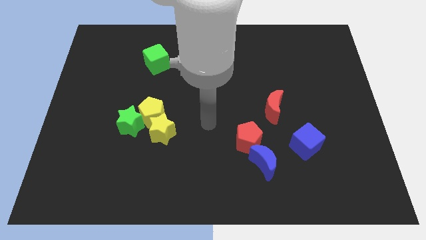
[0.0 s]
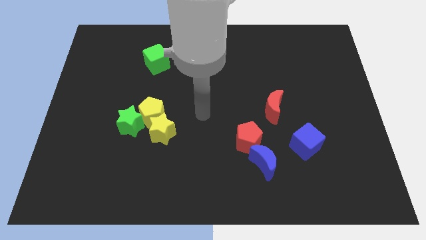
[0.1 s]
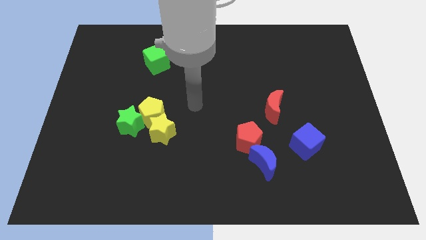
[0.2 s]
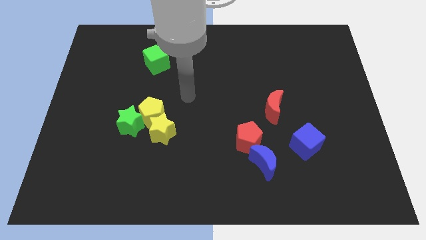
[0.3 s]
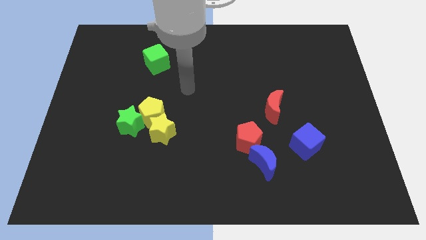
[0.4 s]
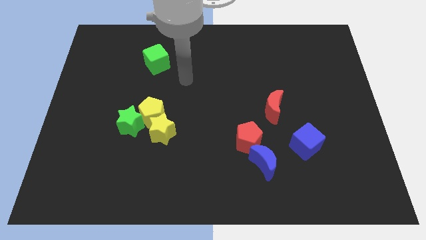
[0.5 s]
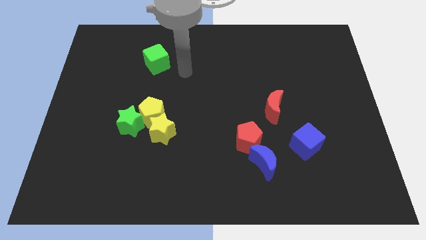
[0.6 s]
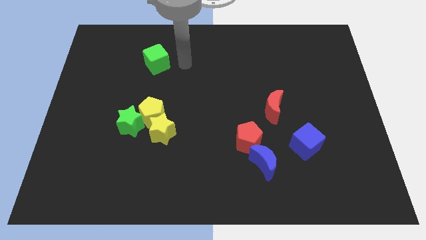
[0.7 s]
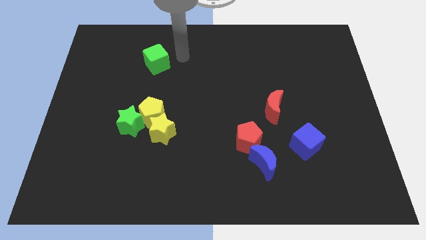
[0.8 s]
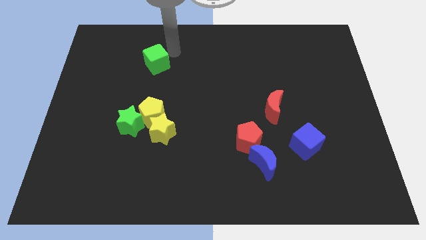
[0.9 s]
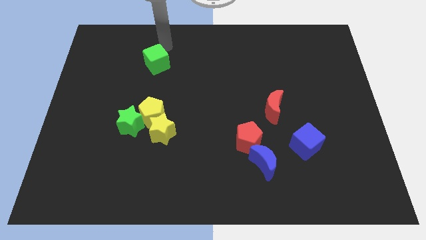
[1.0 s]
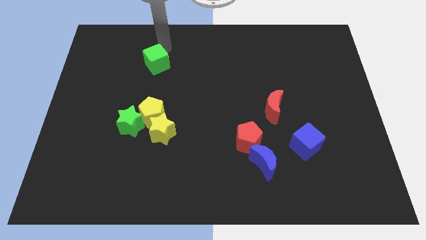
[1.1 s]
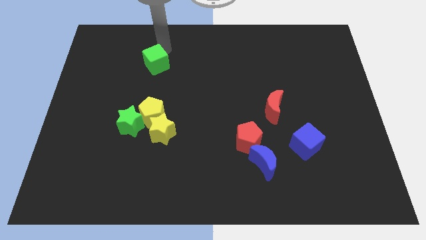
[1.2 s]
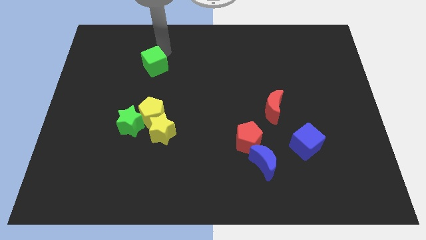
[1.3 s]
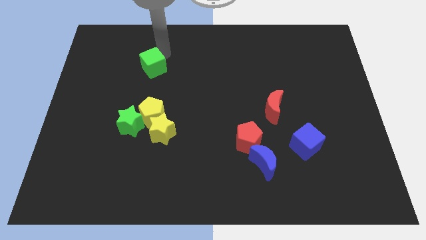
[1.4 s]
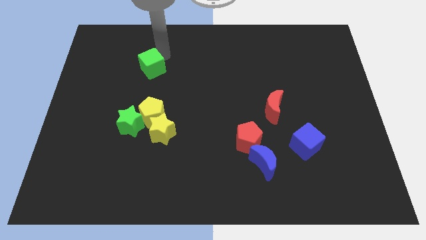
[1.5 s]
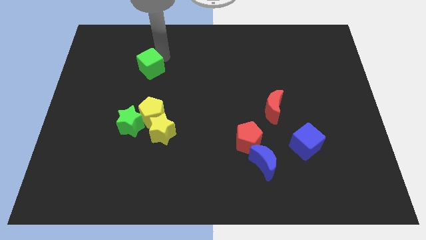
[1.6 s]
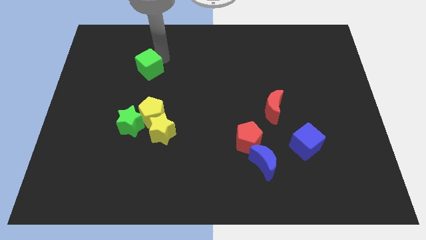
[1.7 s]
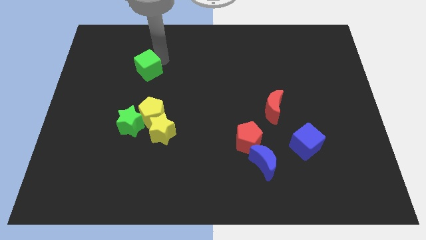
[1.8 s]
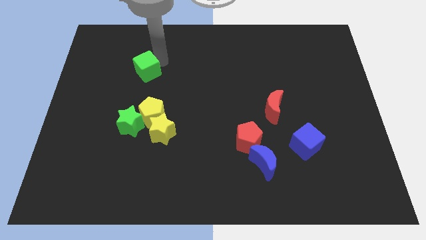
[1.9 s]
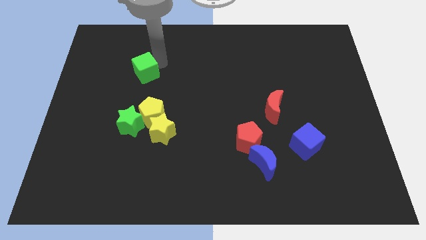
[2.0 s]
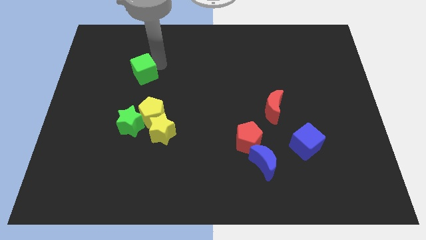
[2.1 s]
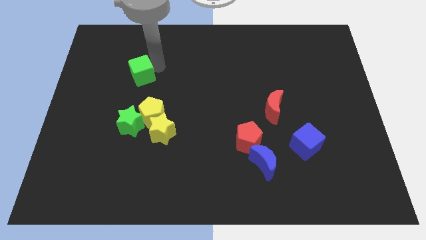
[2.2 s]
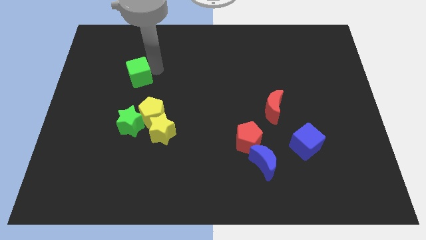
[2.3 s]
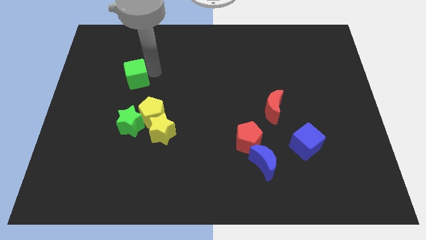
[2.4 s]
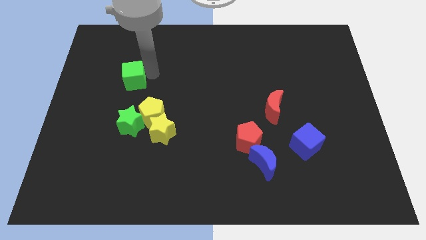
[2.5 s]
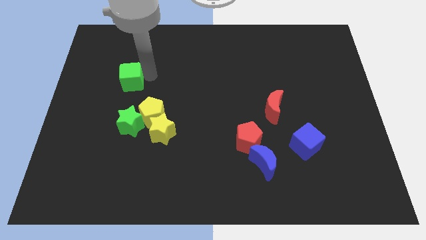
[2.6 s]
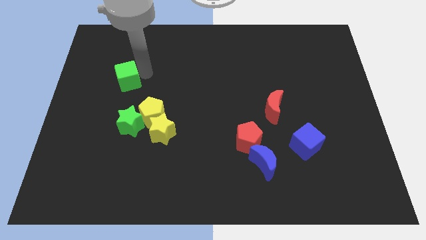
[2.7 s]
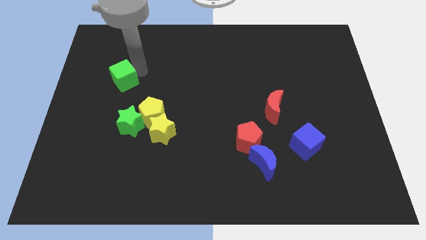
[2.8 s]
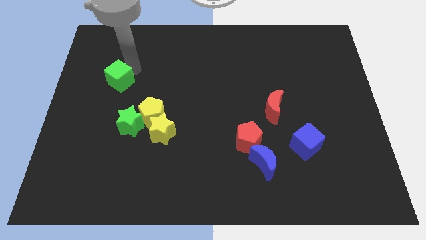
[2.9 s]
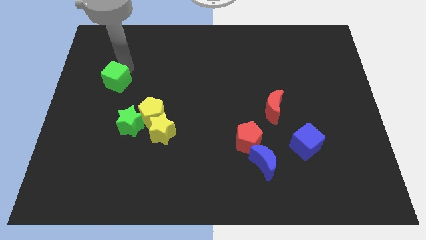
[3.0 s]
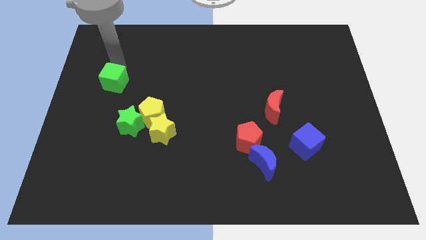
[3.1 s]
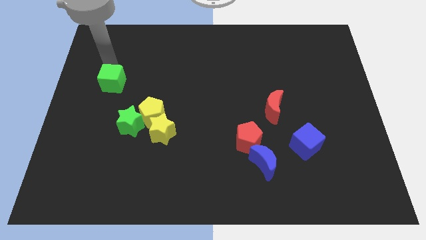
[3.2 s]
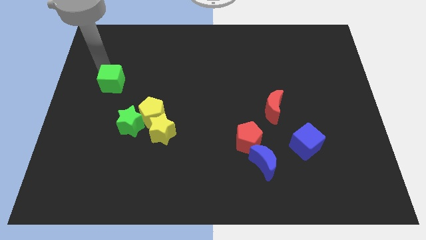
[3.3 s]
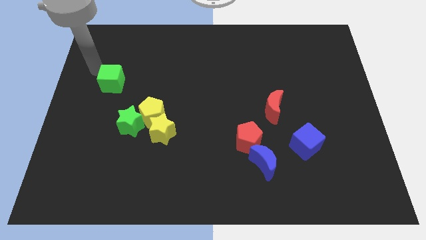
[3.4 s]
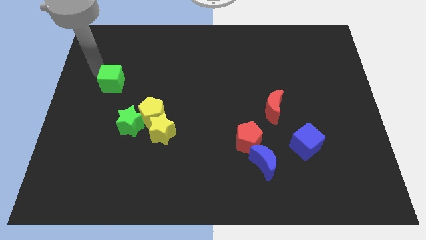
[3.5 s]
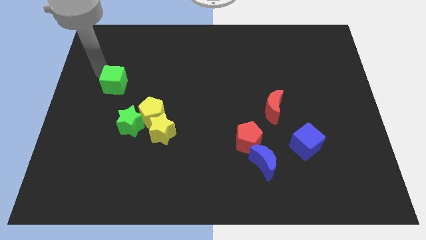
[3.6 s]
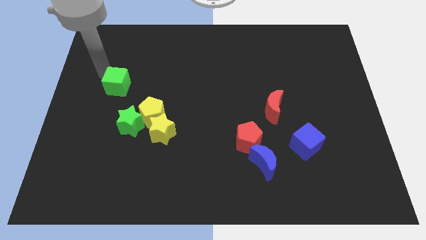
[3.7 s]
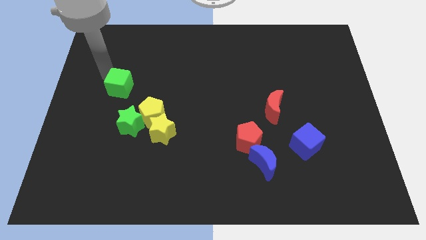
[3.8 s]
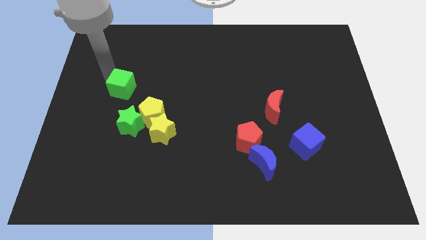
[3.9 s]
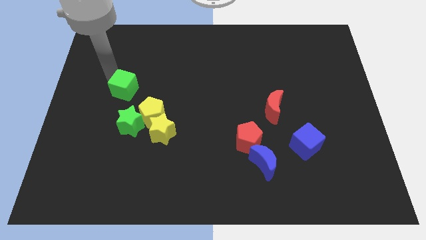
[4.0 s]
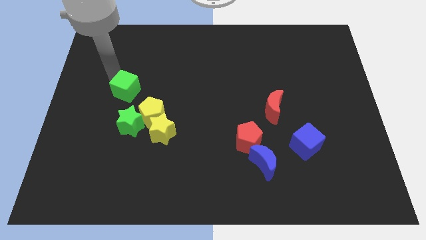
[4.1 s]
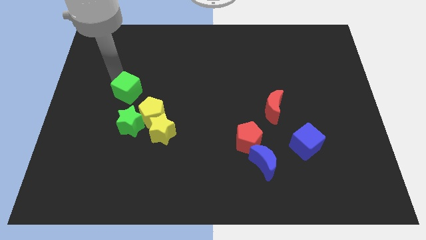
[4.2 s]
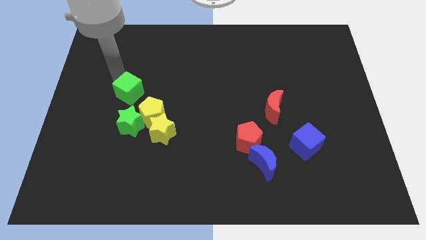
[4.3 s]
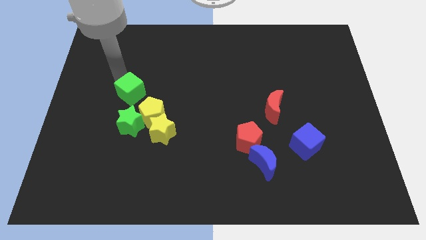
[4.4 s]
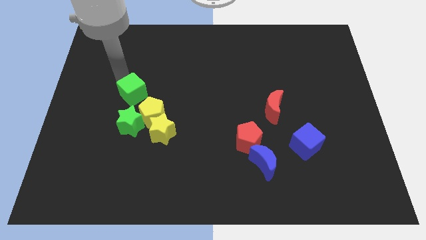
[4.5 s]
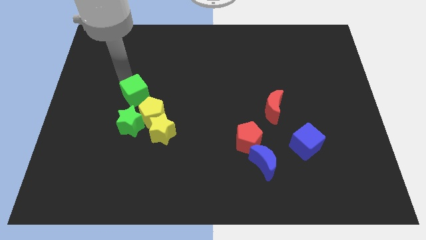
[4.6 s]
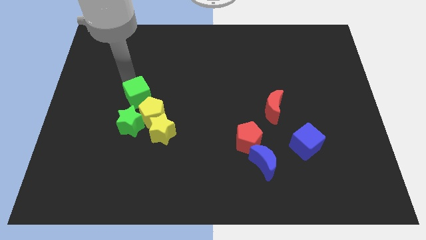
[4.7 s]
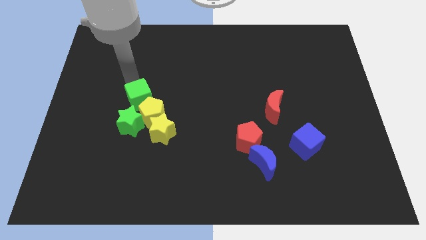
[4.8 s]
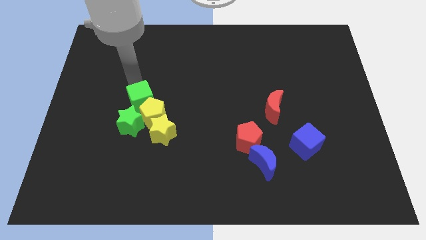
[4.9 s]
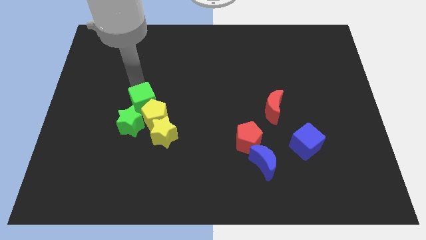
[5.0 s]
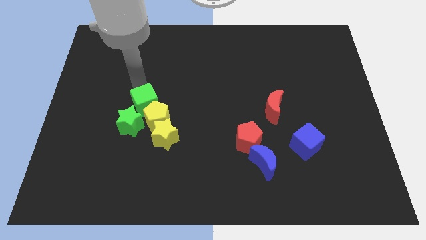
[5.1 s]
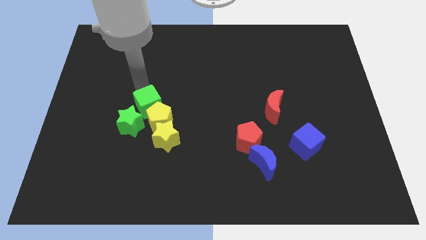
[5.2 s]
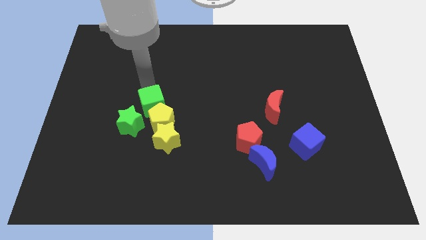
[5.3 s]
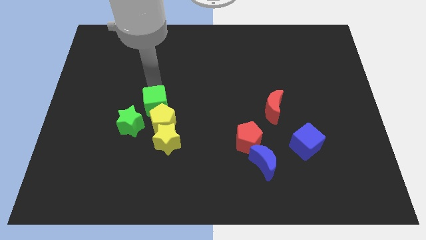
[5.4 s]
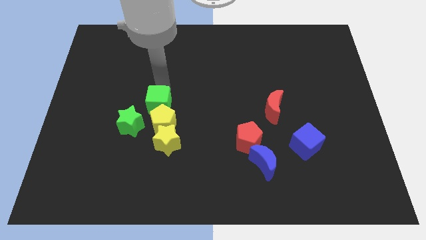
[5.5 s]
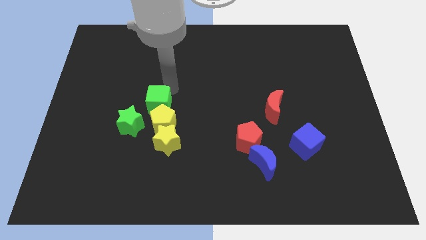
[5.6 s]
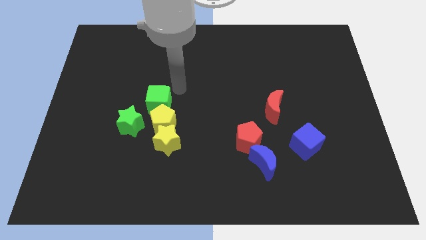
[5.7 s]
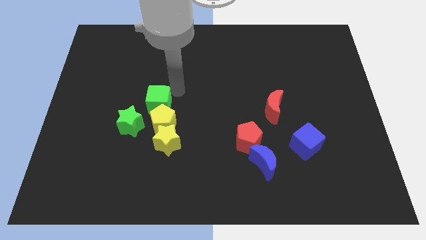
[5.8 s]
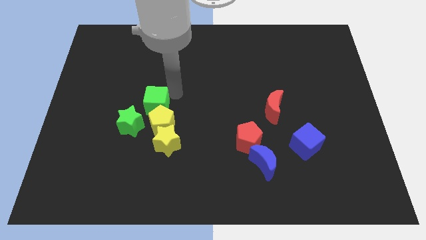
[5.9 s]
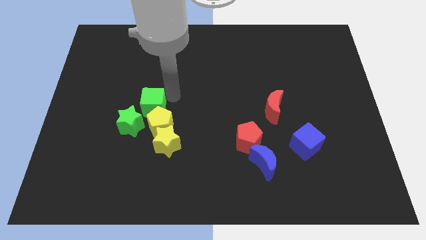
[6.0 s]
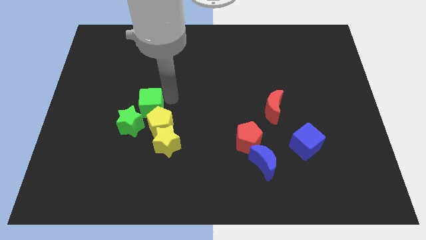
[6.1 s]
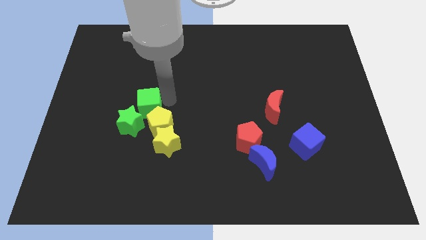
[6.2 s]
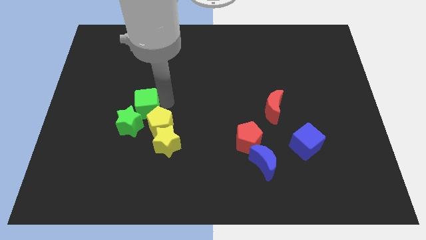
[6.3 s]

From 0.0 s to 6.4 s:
move the green cube next to the green star

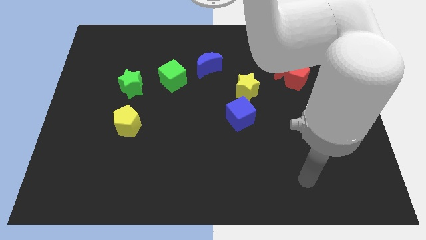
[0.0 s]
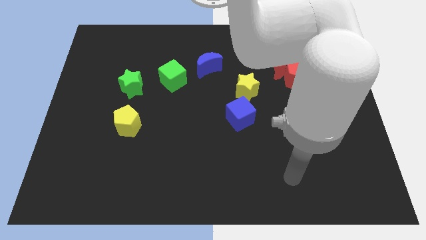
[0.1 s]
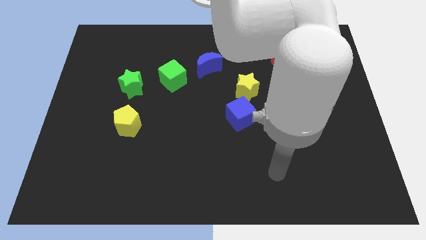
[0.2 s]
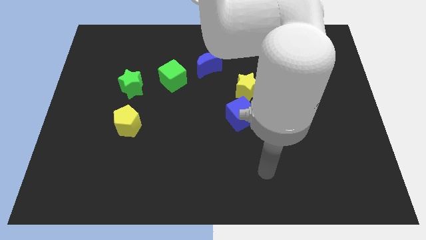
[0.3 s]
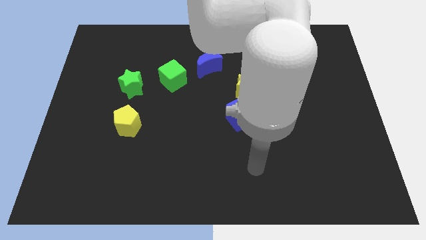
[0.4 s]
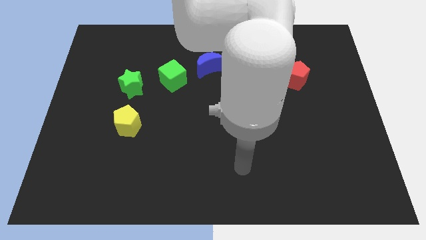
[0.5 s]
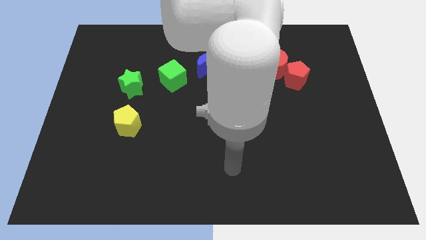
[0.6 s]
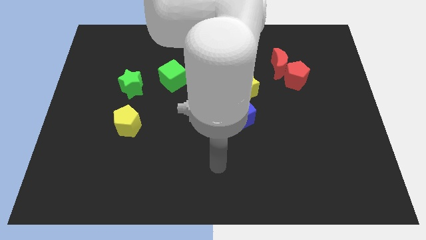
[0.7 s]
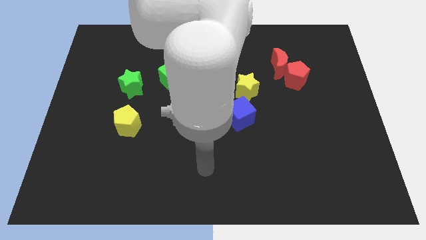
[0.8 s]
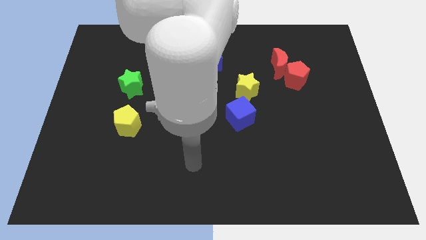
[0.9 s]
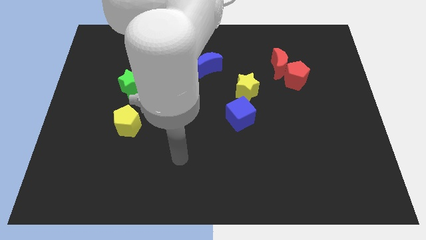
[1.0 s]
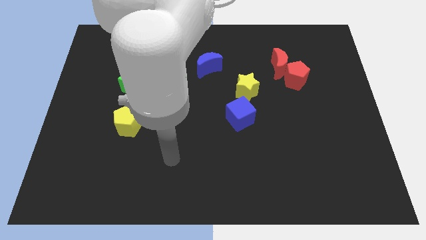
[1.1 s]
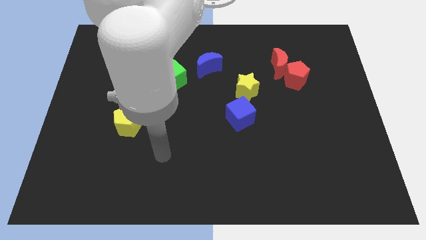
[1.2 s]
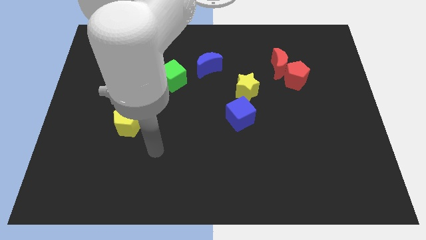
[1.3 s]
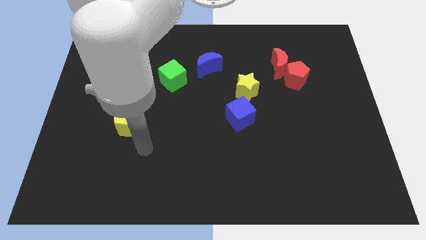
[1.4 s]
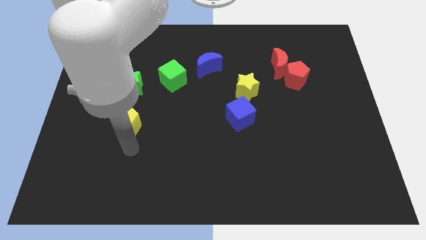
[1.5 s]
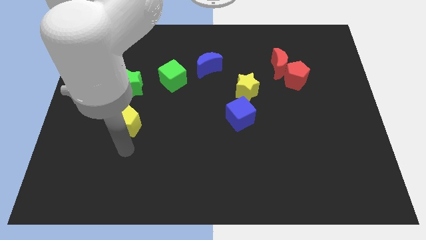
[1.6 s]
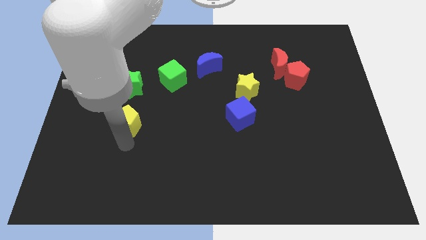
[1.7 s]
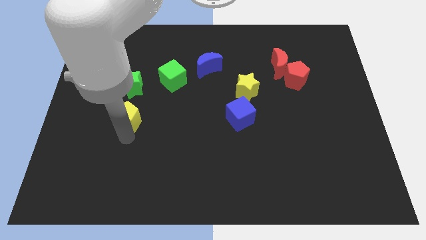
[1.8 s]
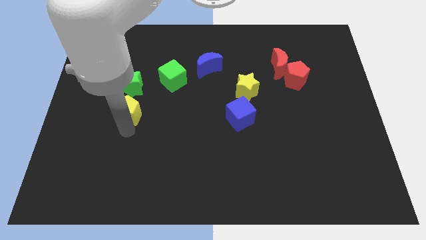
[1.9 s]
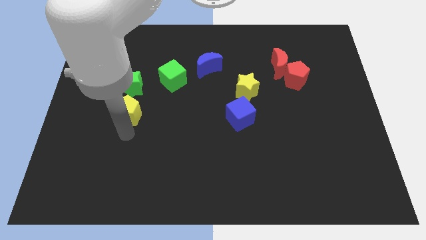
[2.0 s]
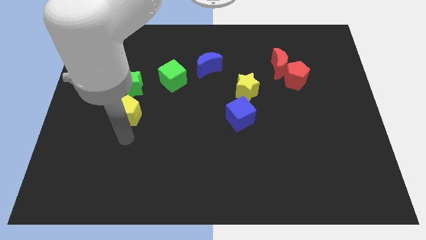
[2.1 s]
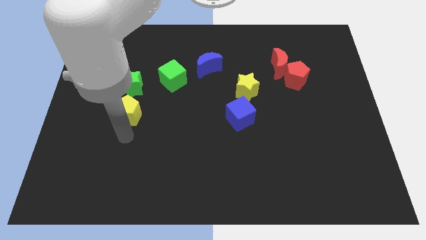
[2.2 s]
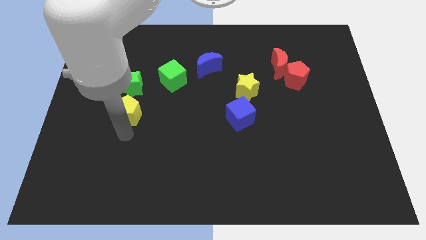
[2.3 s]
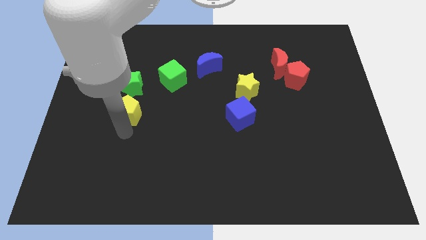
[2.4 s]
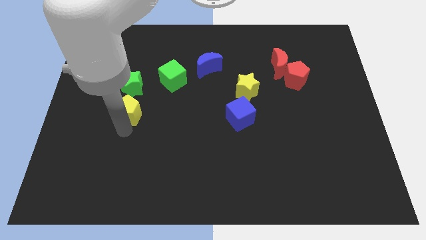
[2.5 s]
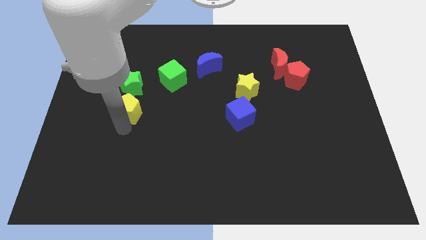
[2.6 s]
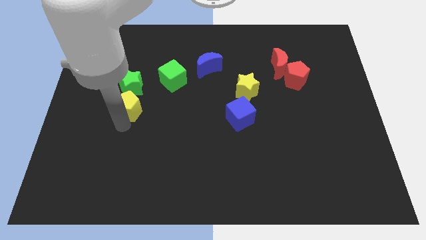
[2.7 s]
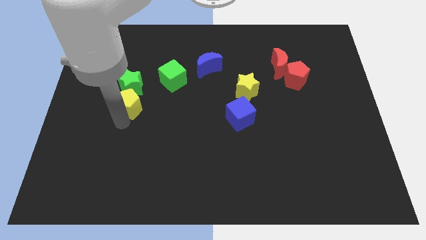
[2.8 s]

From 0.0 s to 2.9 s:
slide the yellow pentagon close to the green star
